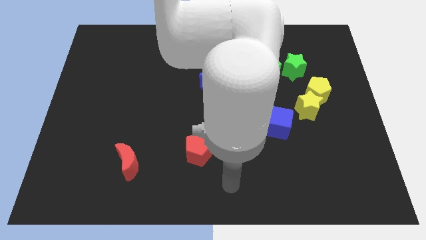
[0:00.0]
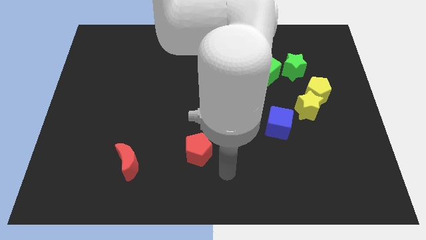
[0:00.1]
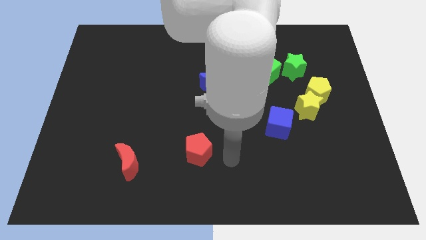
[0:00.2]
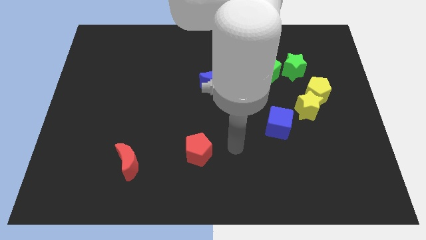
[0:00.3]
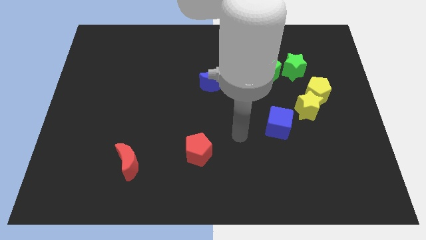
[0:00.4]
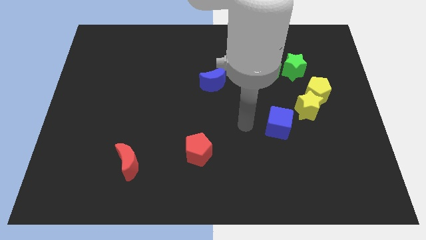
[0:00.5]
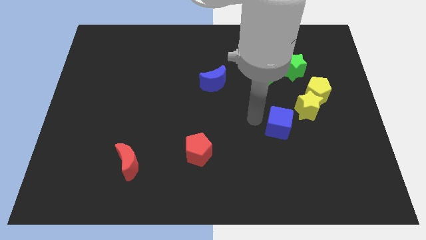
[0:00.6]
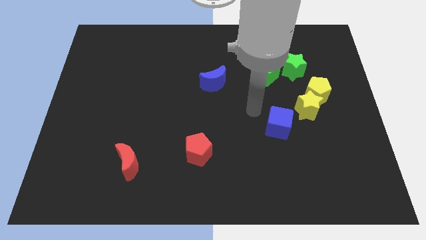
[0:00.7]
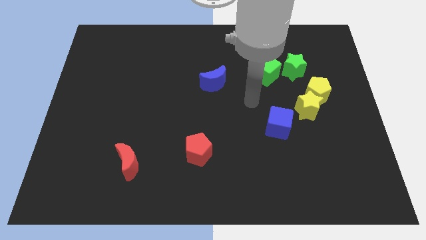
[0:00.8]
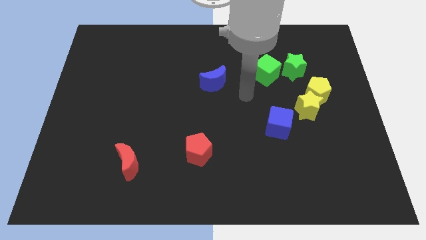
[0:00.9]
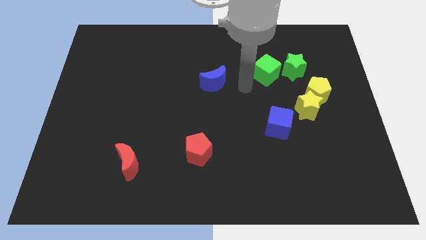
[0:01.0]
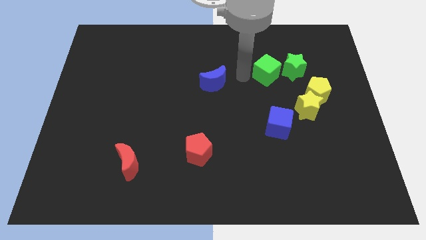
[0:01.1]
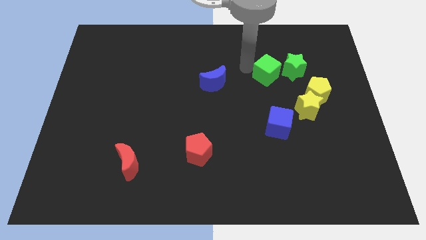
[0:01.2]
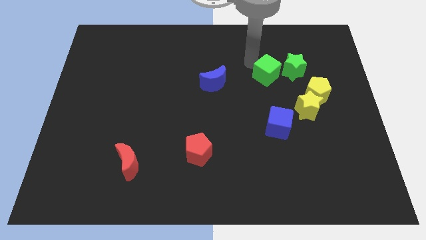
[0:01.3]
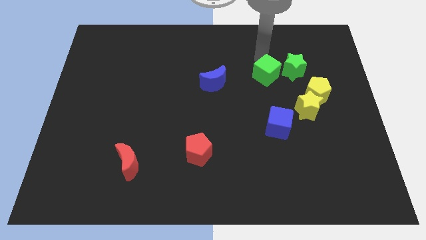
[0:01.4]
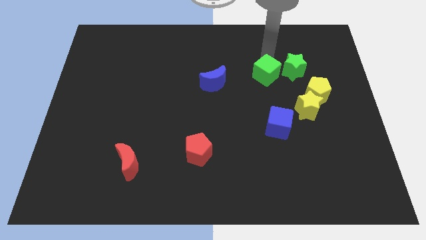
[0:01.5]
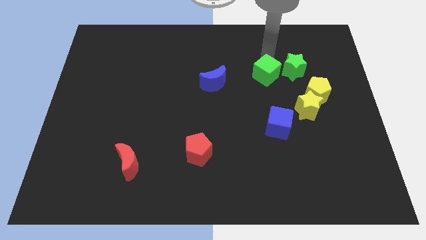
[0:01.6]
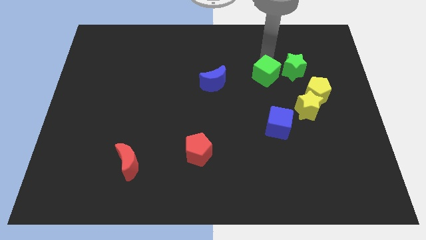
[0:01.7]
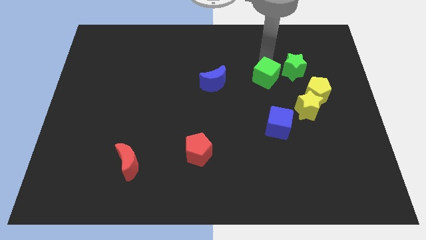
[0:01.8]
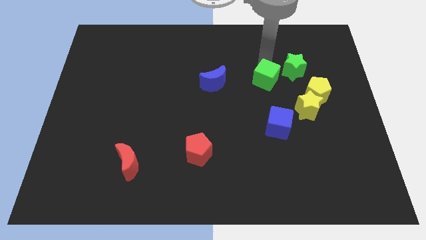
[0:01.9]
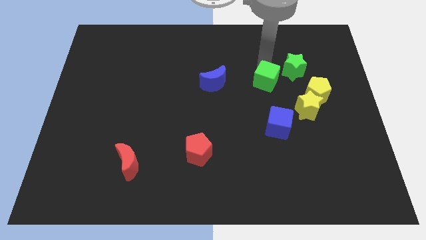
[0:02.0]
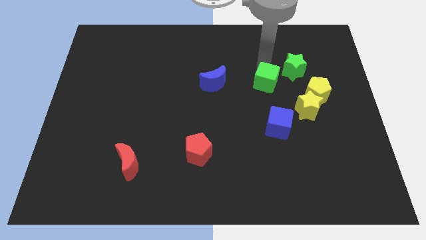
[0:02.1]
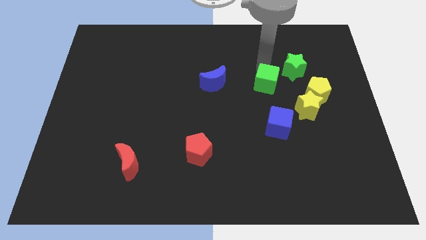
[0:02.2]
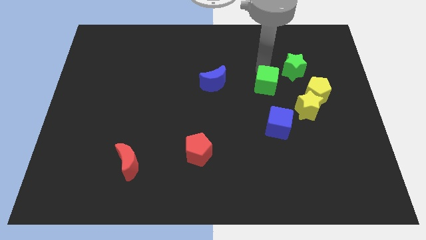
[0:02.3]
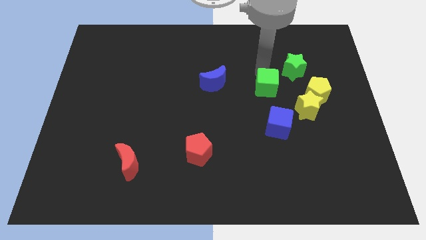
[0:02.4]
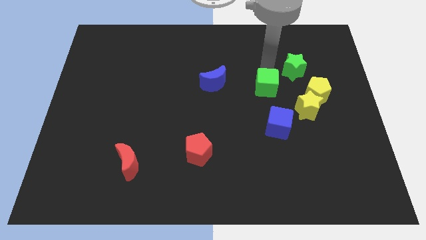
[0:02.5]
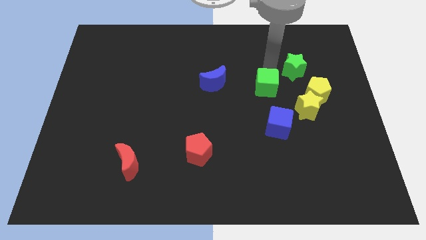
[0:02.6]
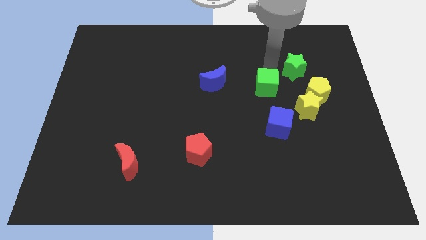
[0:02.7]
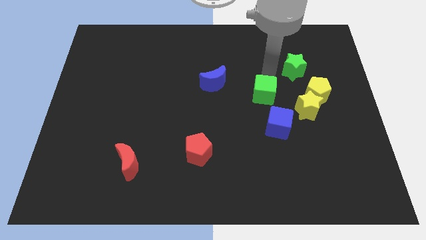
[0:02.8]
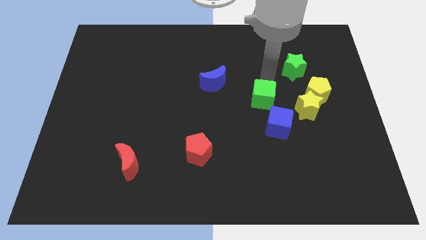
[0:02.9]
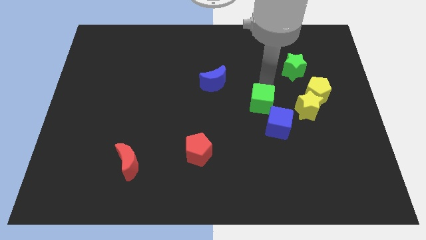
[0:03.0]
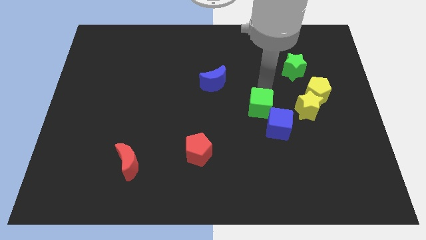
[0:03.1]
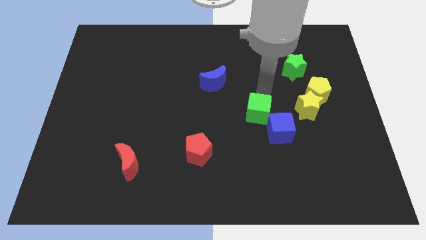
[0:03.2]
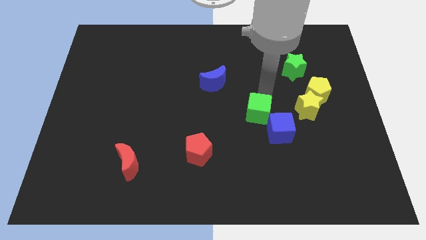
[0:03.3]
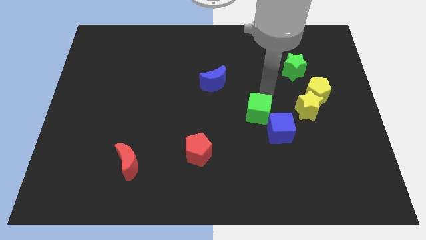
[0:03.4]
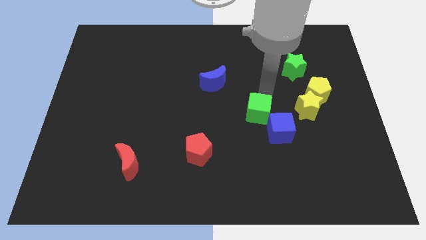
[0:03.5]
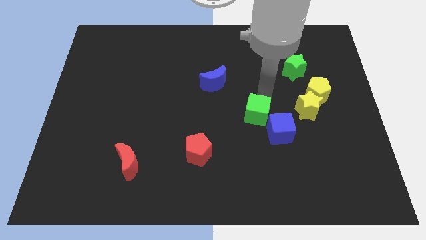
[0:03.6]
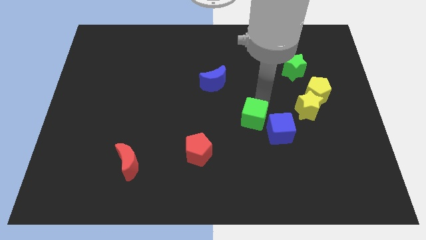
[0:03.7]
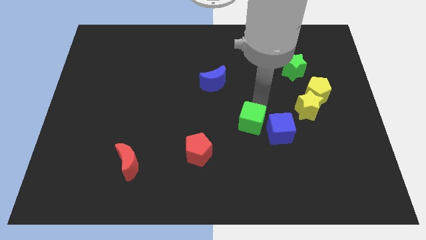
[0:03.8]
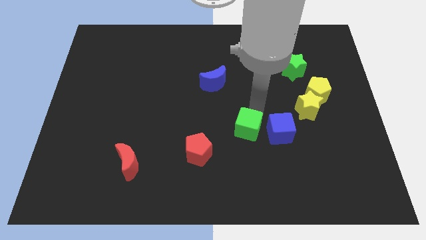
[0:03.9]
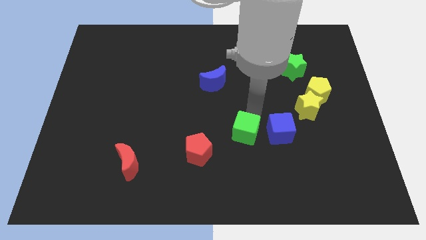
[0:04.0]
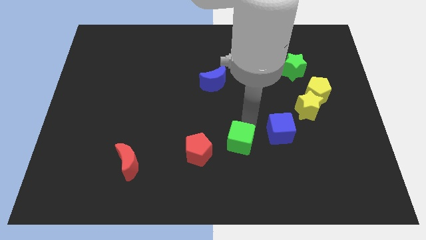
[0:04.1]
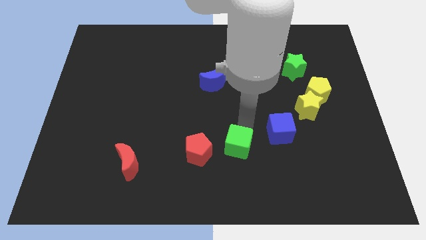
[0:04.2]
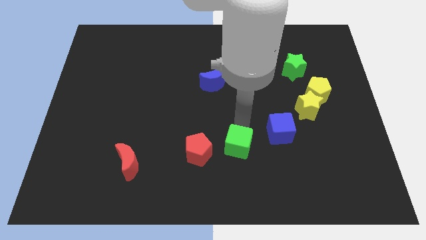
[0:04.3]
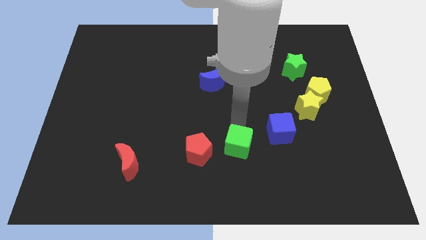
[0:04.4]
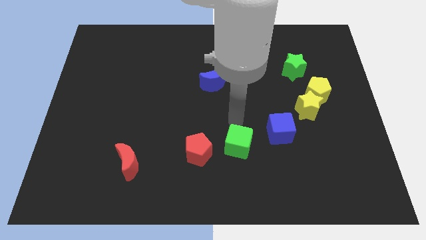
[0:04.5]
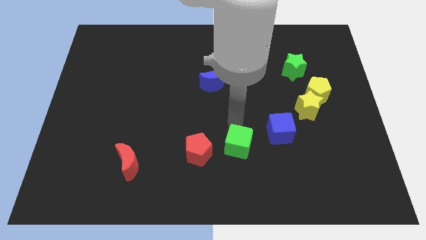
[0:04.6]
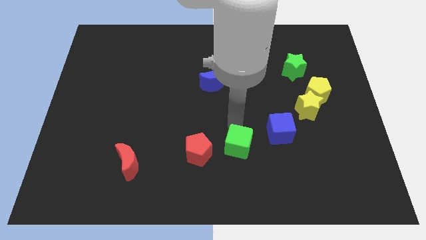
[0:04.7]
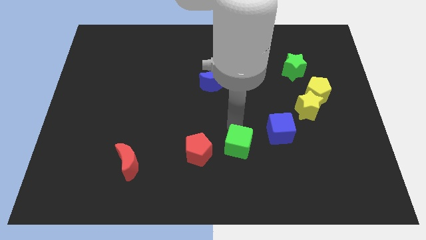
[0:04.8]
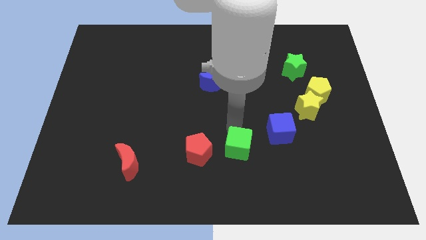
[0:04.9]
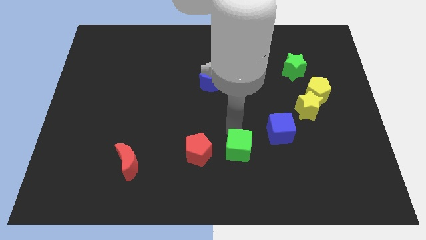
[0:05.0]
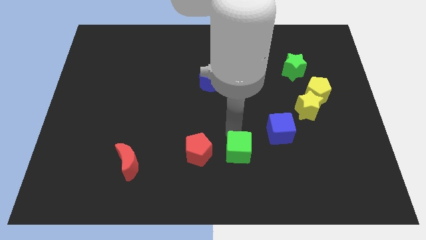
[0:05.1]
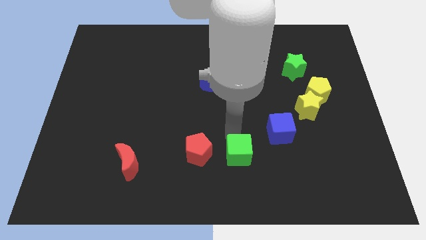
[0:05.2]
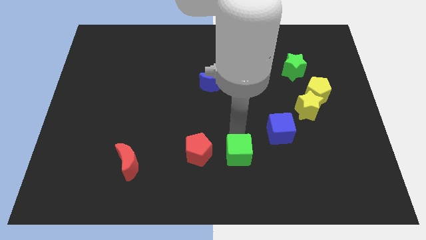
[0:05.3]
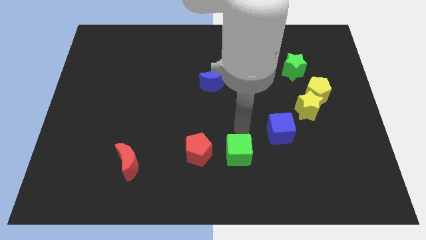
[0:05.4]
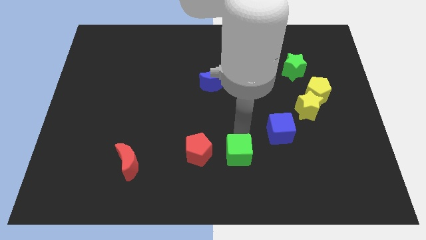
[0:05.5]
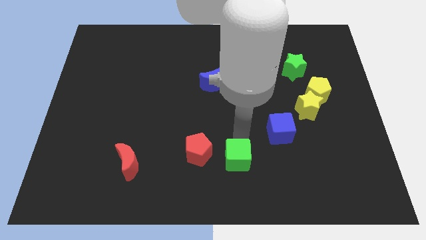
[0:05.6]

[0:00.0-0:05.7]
move the green cube to the bottom side

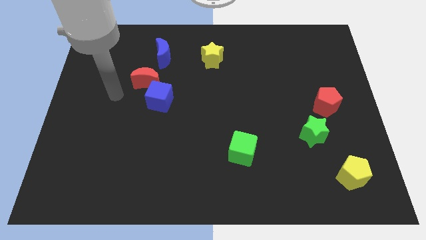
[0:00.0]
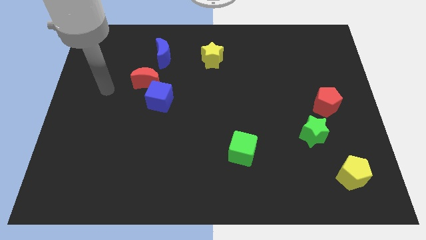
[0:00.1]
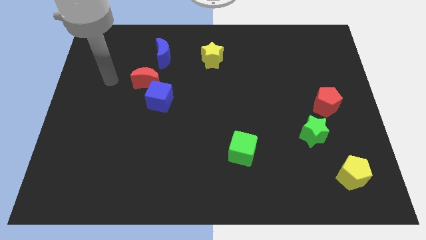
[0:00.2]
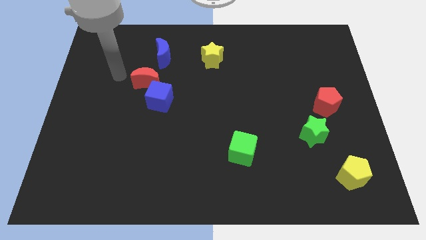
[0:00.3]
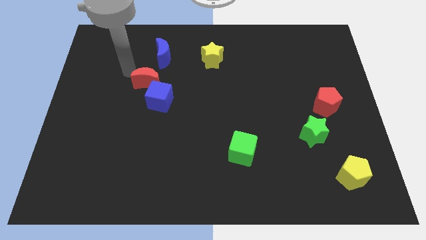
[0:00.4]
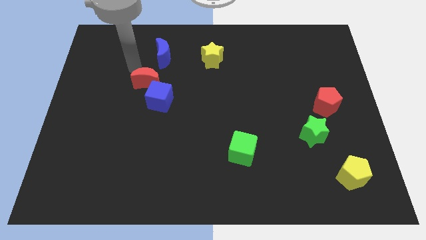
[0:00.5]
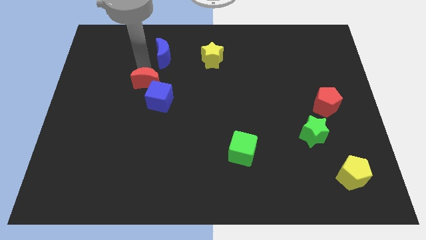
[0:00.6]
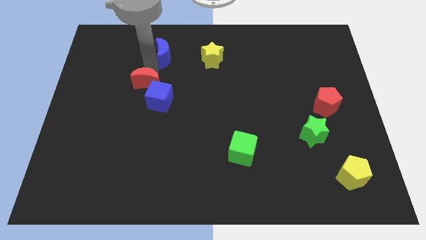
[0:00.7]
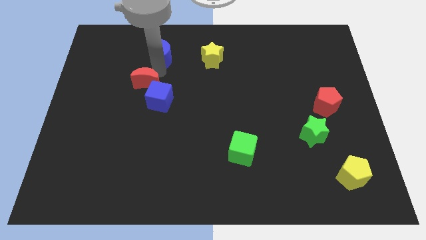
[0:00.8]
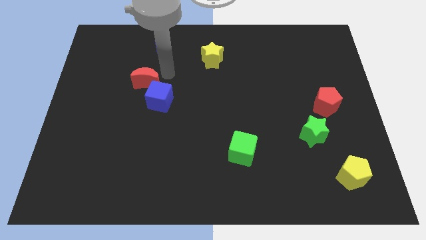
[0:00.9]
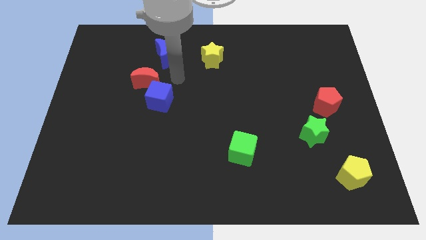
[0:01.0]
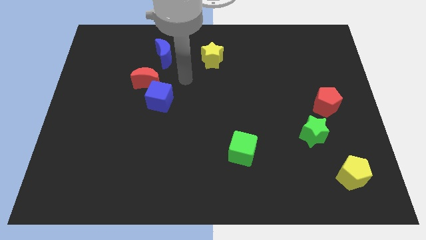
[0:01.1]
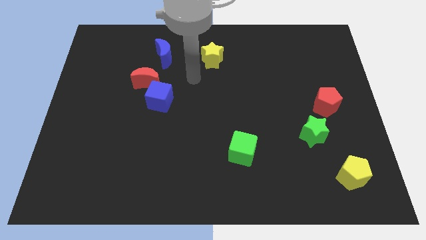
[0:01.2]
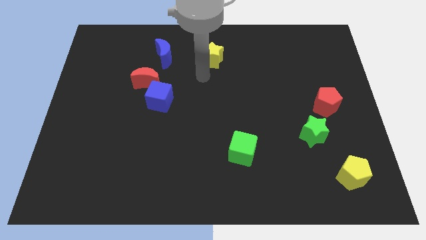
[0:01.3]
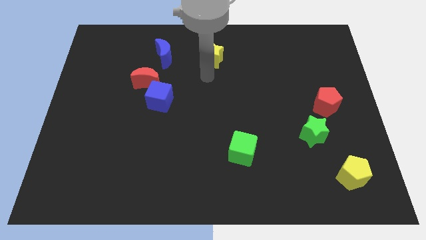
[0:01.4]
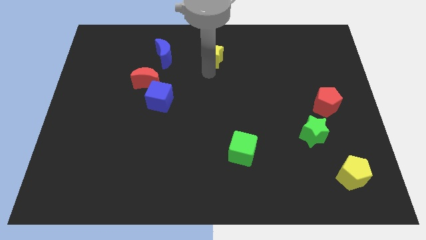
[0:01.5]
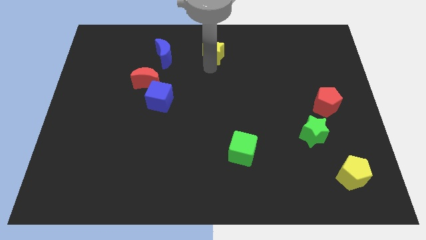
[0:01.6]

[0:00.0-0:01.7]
push the yellow star to the top
